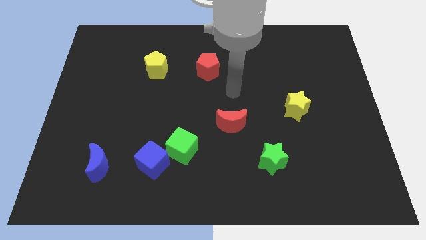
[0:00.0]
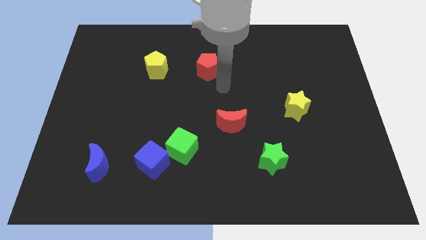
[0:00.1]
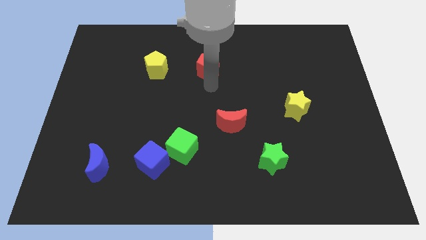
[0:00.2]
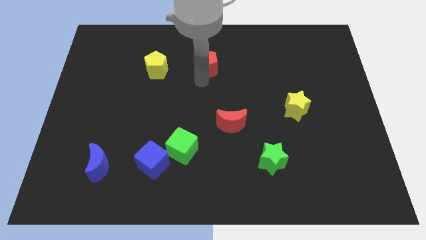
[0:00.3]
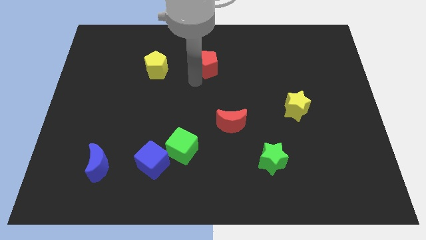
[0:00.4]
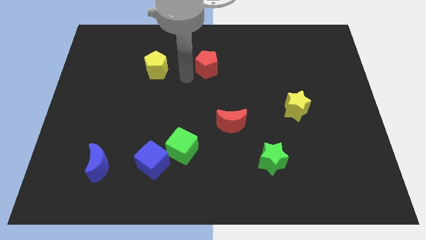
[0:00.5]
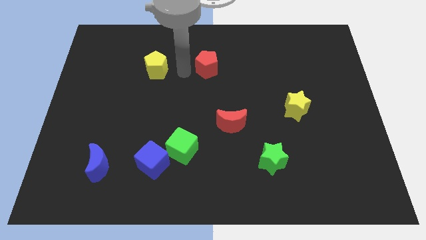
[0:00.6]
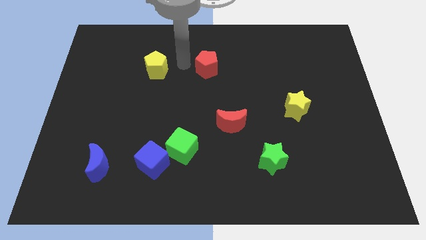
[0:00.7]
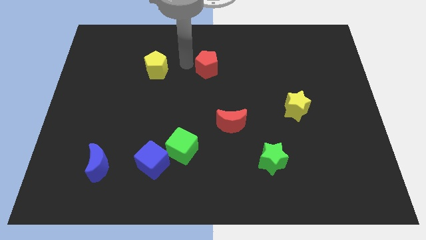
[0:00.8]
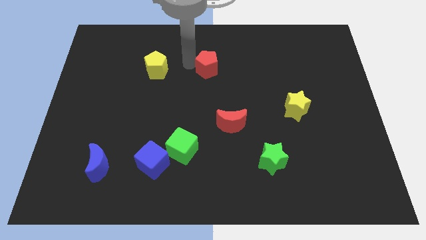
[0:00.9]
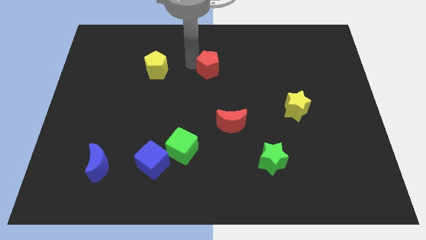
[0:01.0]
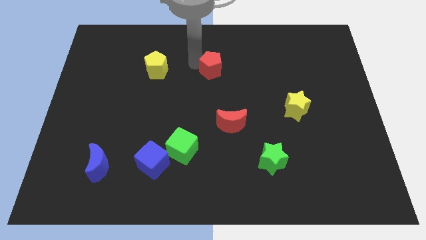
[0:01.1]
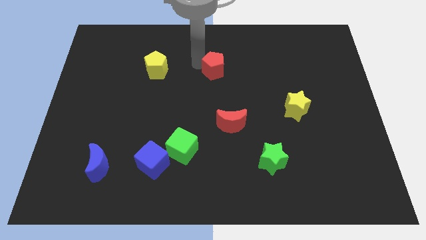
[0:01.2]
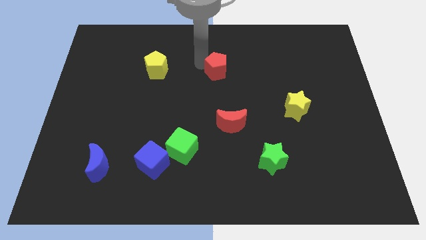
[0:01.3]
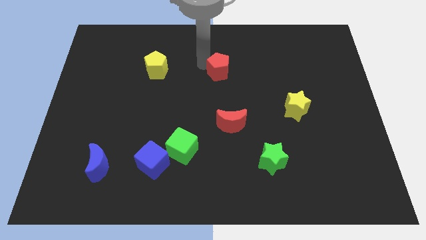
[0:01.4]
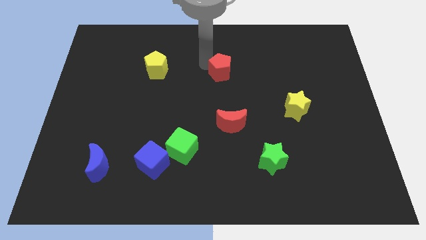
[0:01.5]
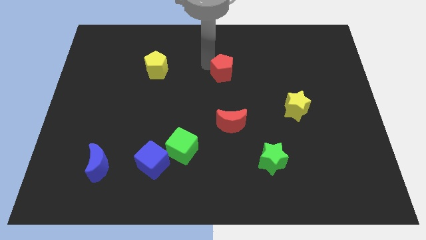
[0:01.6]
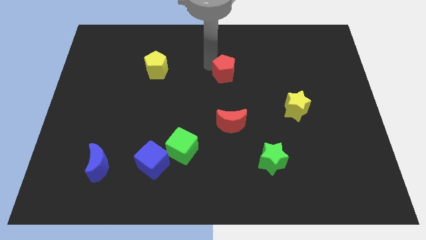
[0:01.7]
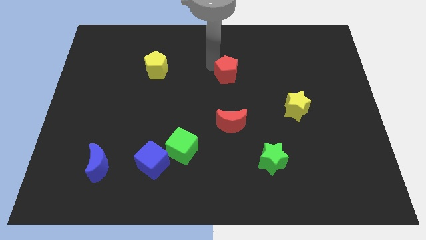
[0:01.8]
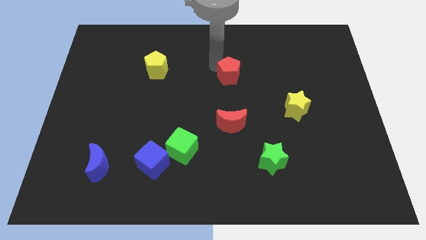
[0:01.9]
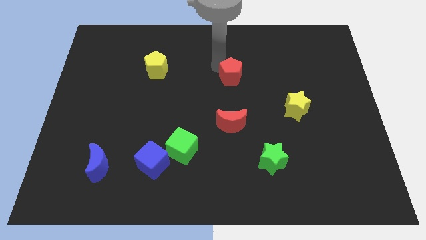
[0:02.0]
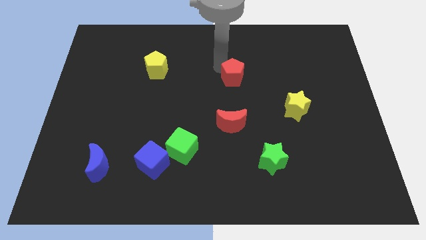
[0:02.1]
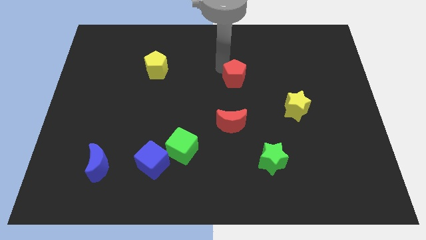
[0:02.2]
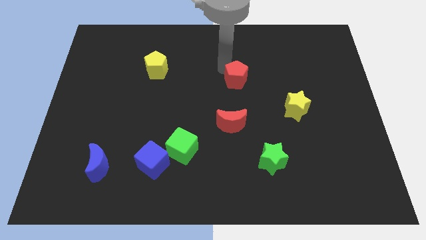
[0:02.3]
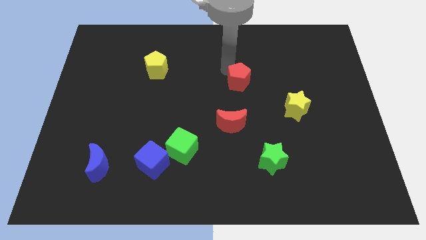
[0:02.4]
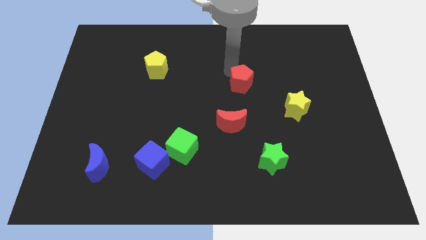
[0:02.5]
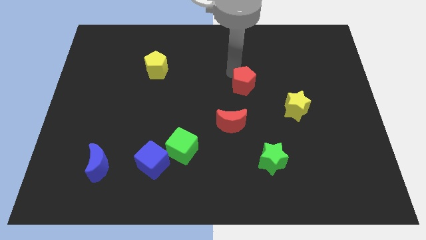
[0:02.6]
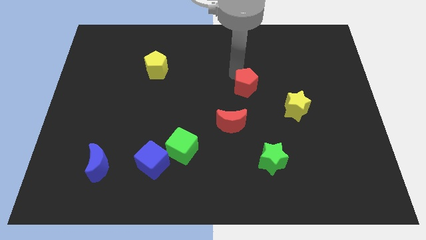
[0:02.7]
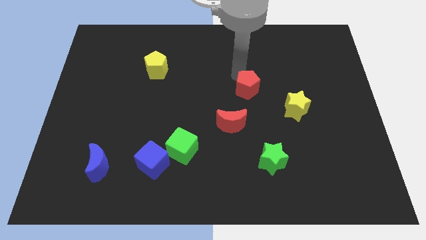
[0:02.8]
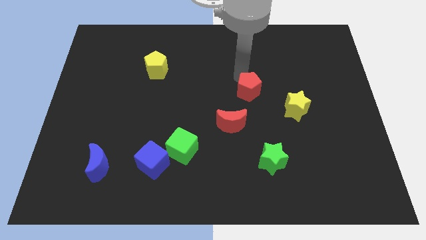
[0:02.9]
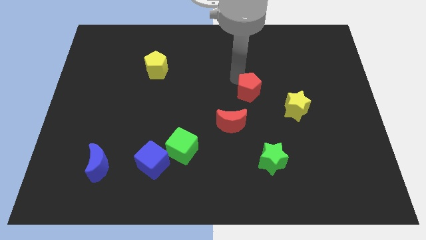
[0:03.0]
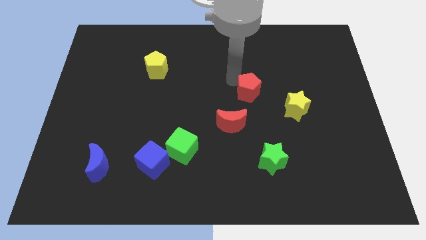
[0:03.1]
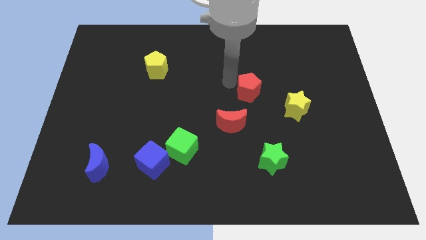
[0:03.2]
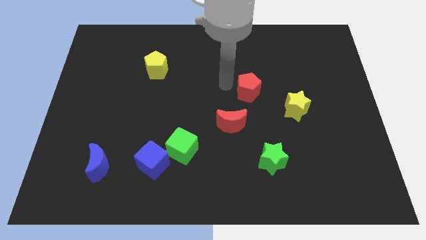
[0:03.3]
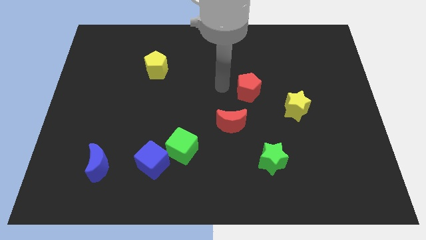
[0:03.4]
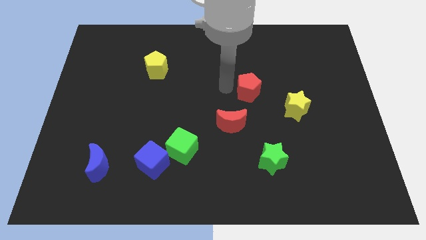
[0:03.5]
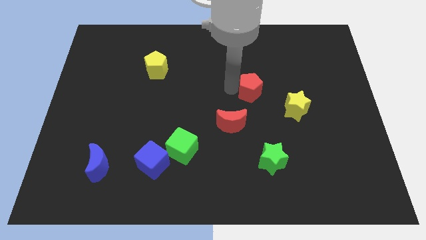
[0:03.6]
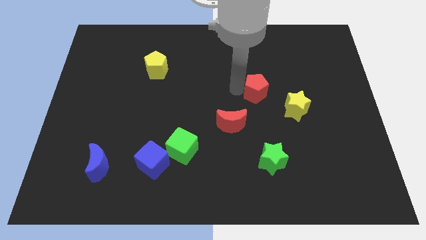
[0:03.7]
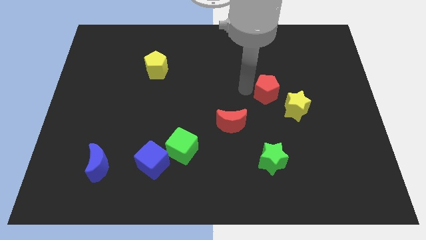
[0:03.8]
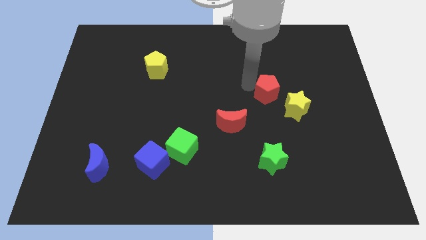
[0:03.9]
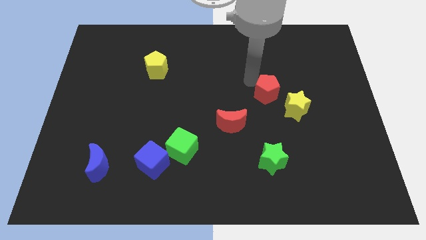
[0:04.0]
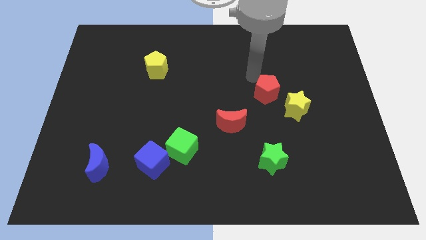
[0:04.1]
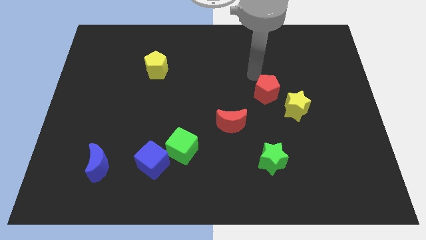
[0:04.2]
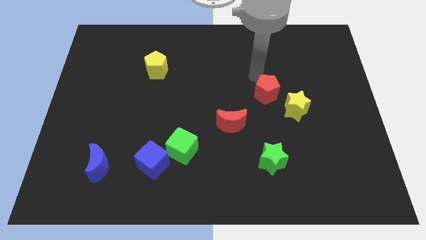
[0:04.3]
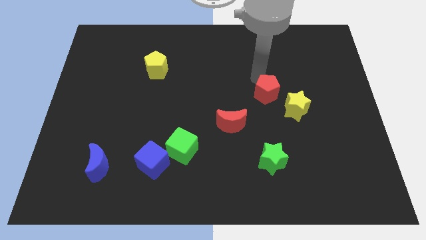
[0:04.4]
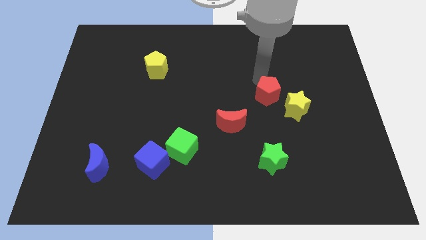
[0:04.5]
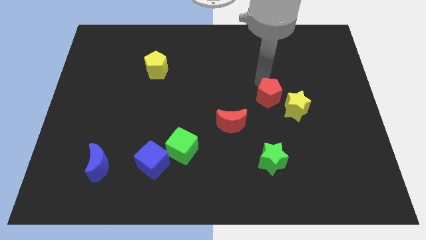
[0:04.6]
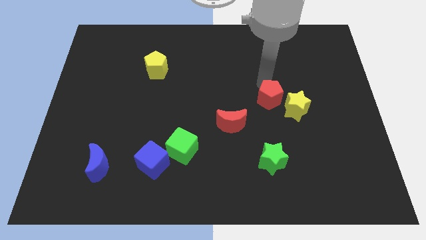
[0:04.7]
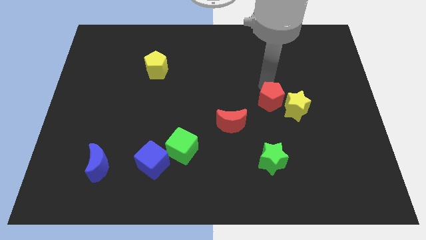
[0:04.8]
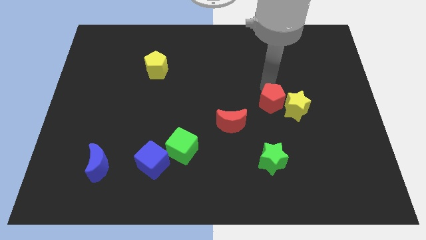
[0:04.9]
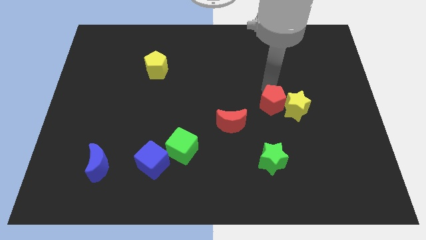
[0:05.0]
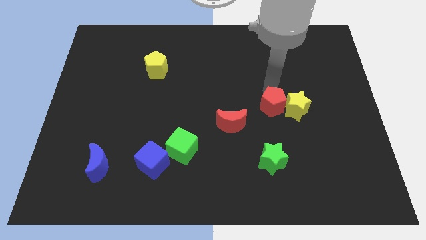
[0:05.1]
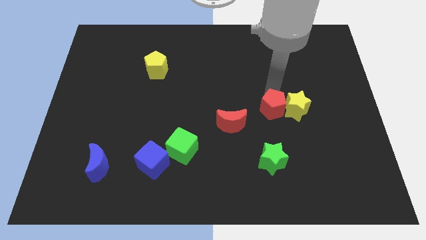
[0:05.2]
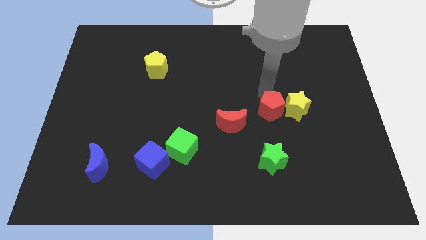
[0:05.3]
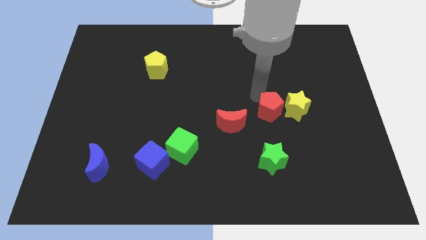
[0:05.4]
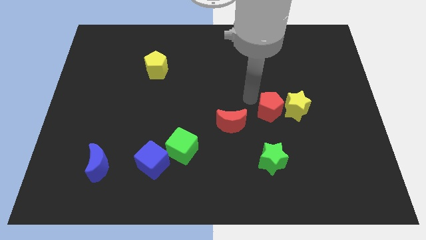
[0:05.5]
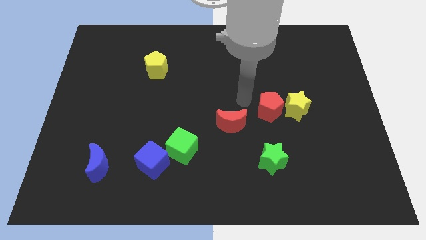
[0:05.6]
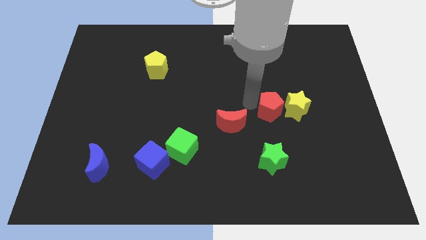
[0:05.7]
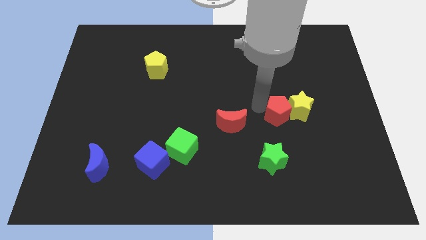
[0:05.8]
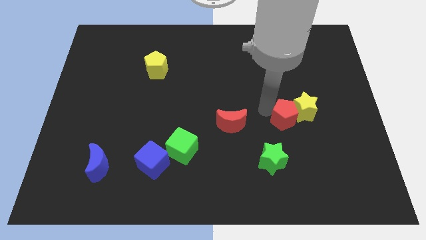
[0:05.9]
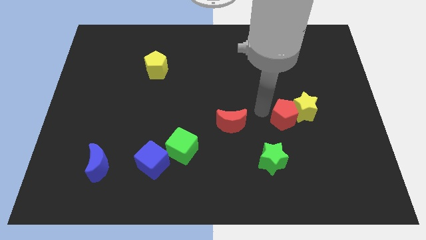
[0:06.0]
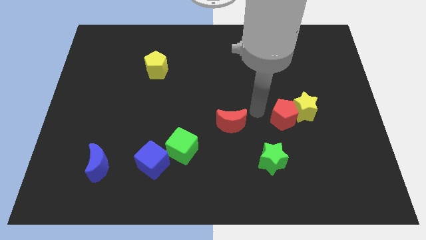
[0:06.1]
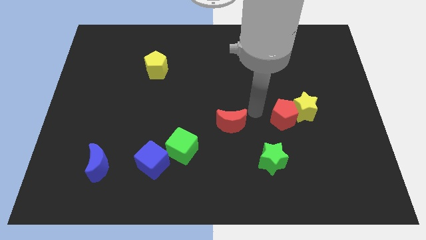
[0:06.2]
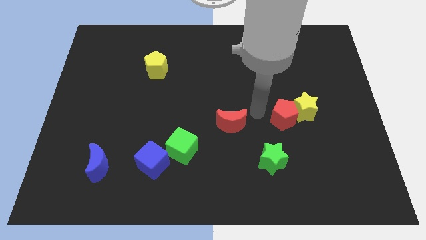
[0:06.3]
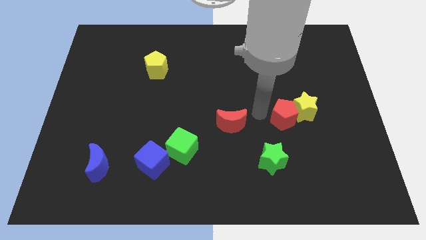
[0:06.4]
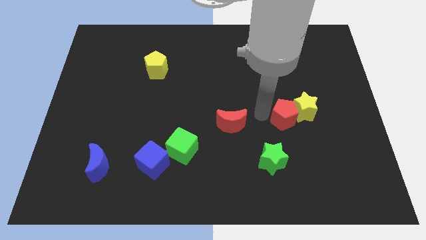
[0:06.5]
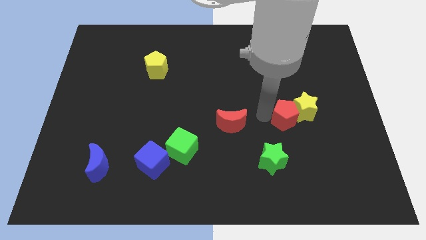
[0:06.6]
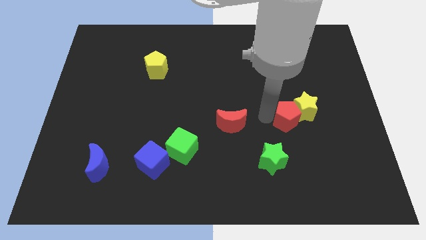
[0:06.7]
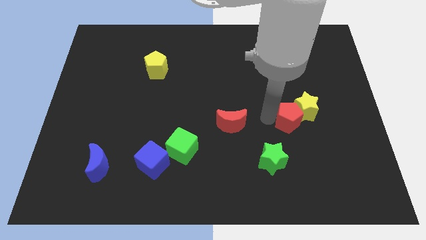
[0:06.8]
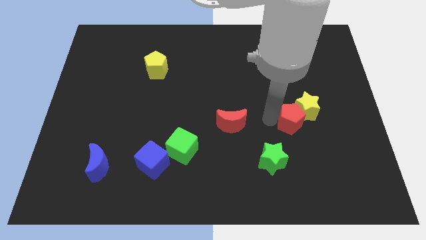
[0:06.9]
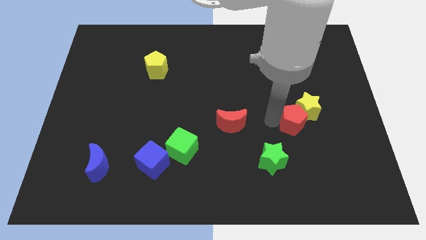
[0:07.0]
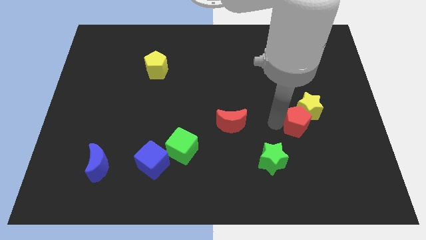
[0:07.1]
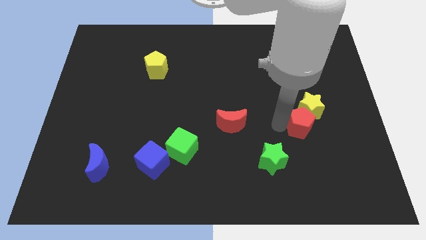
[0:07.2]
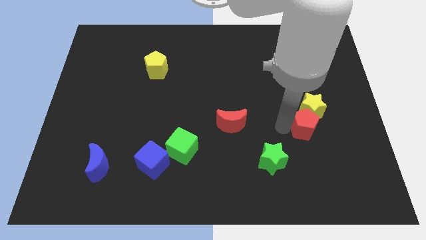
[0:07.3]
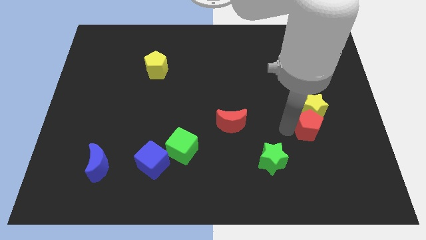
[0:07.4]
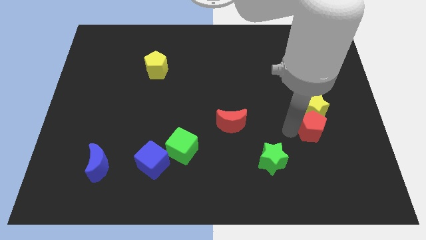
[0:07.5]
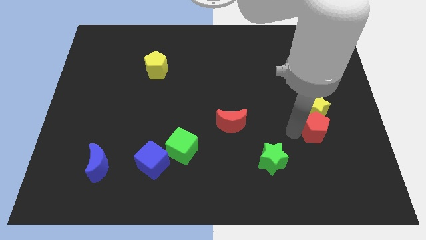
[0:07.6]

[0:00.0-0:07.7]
slide the red pentagon diagonally down and to the right of the yellow star
